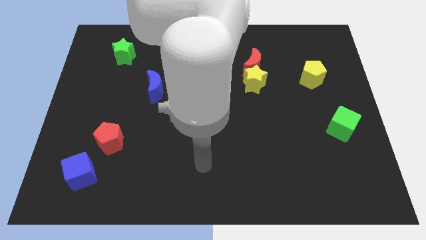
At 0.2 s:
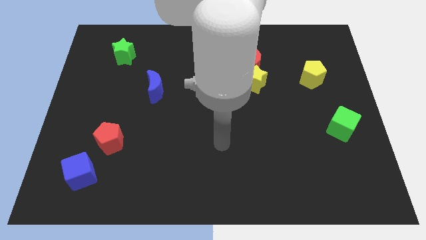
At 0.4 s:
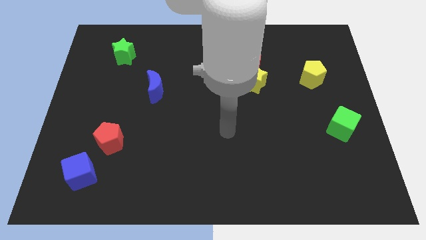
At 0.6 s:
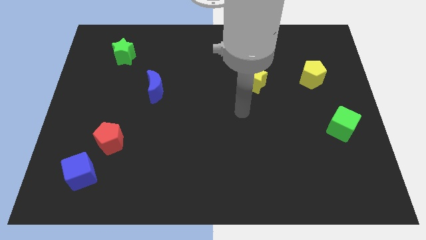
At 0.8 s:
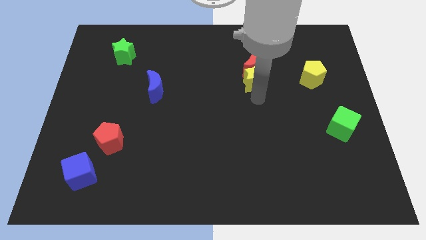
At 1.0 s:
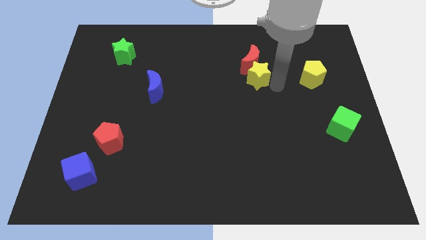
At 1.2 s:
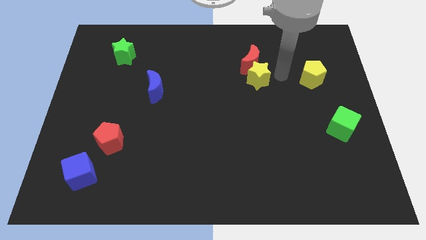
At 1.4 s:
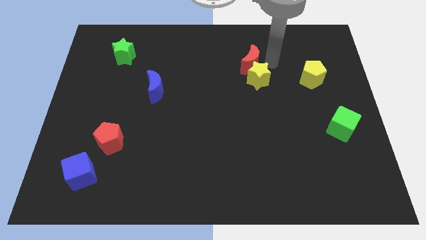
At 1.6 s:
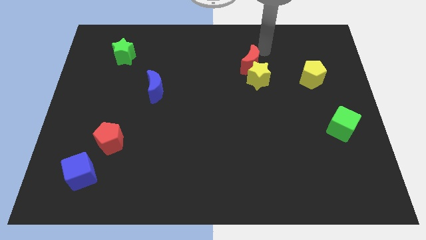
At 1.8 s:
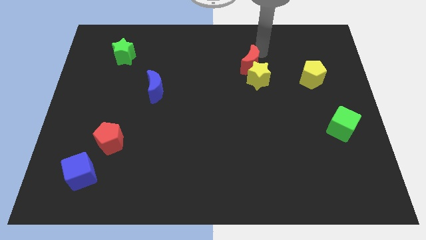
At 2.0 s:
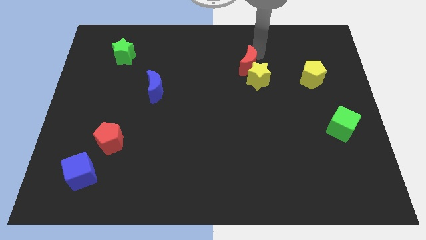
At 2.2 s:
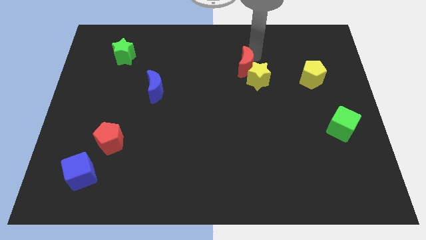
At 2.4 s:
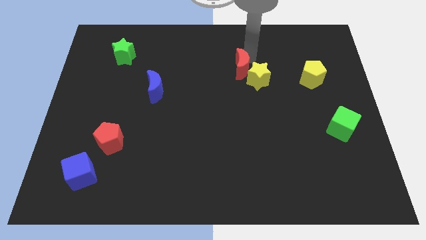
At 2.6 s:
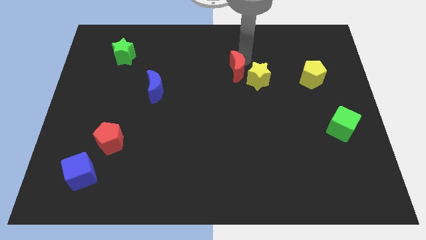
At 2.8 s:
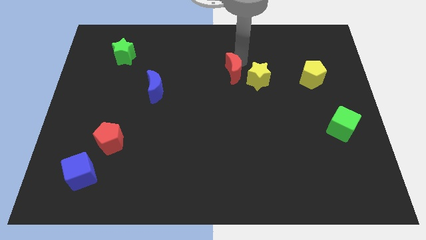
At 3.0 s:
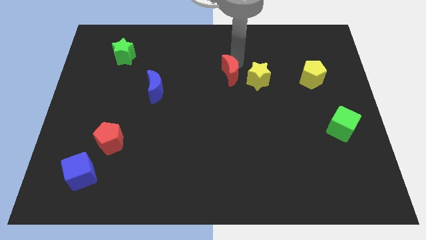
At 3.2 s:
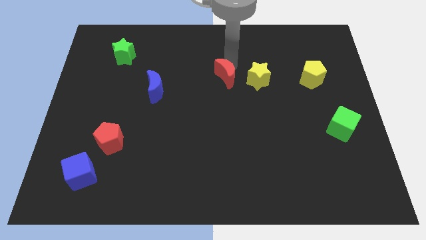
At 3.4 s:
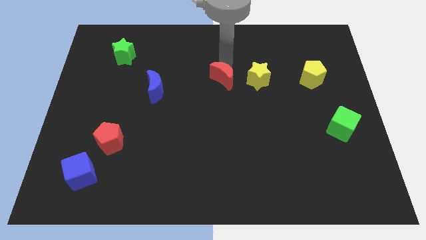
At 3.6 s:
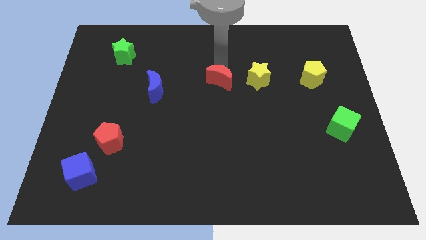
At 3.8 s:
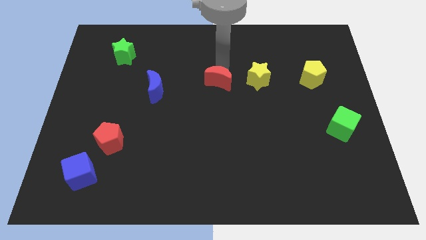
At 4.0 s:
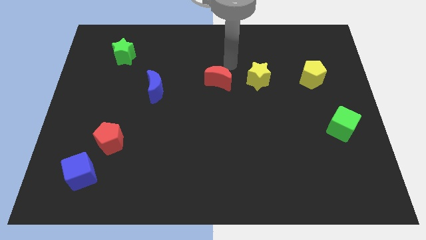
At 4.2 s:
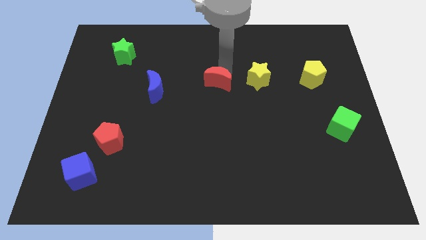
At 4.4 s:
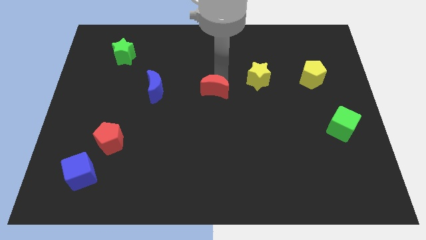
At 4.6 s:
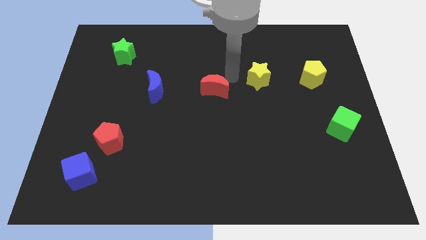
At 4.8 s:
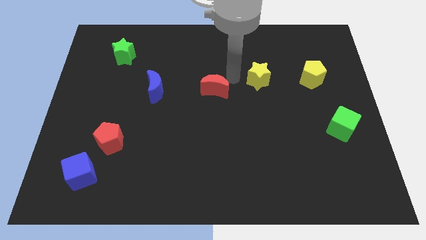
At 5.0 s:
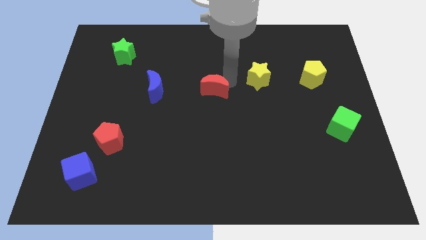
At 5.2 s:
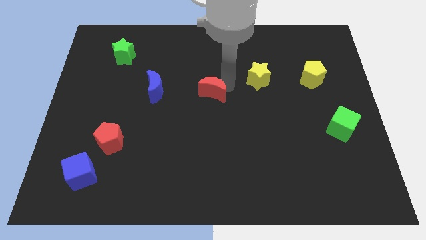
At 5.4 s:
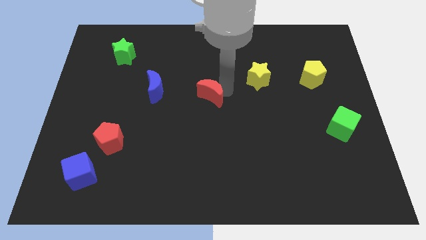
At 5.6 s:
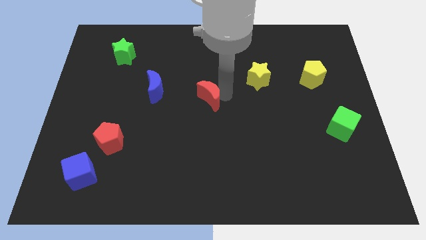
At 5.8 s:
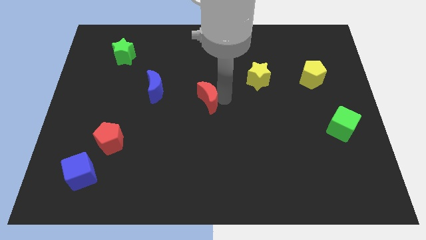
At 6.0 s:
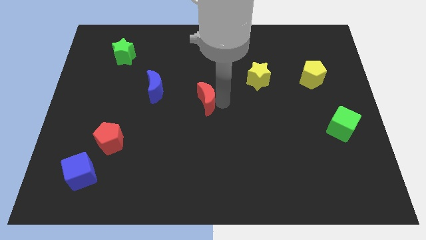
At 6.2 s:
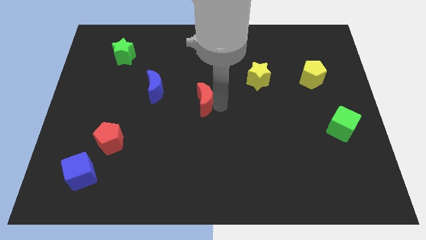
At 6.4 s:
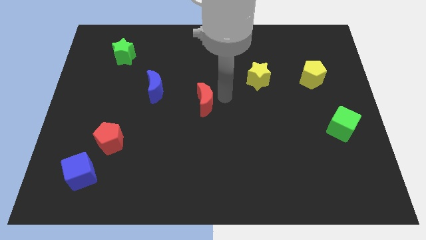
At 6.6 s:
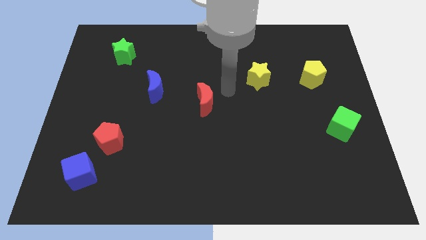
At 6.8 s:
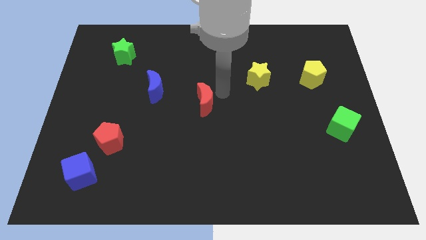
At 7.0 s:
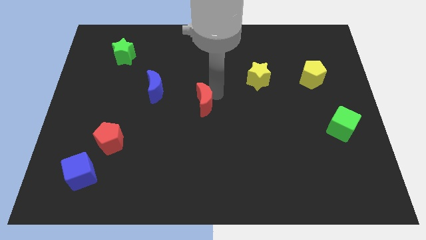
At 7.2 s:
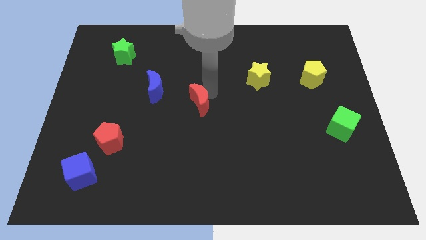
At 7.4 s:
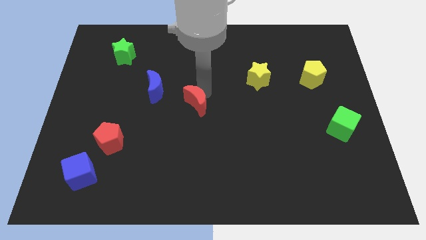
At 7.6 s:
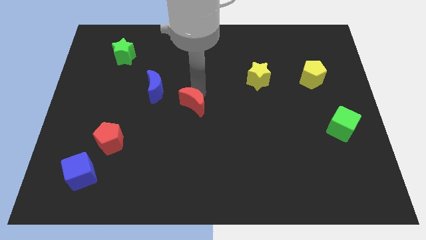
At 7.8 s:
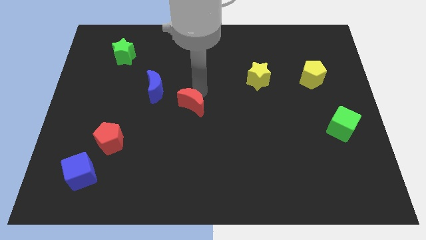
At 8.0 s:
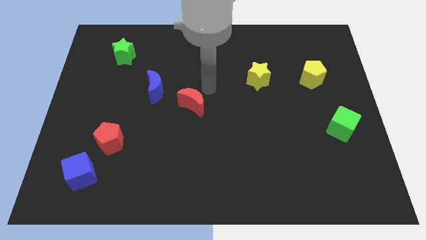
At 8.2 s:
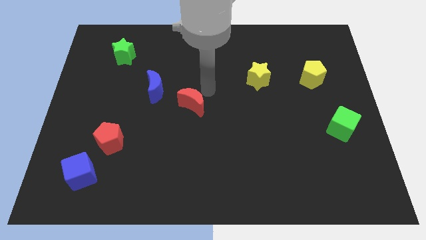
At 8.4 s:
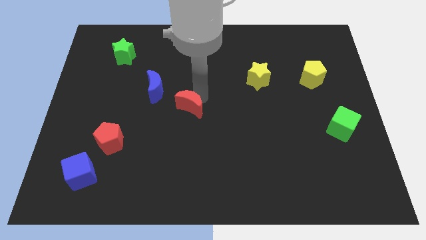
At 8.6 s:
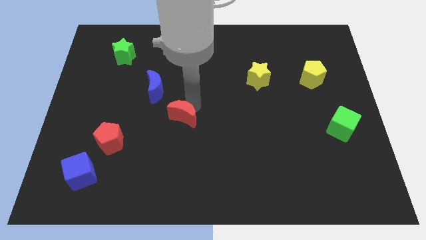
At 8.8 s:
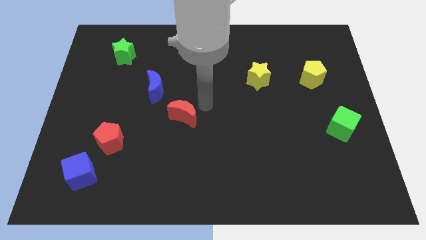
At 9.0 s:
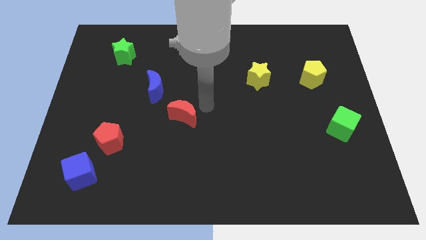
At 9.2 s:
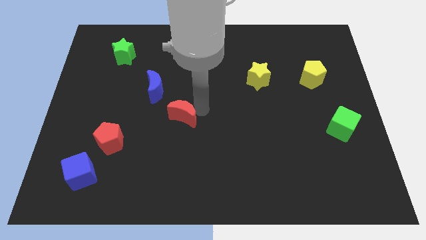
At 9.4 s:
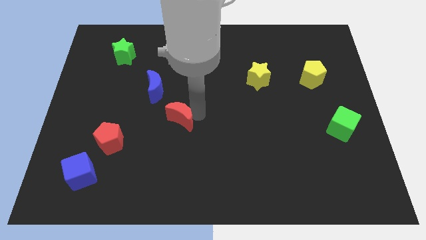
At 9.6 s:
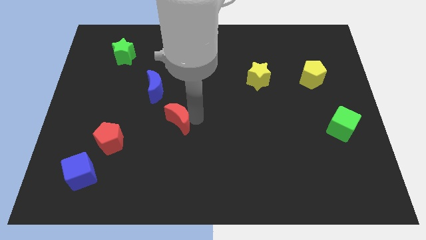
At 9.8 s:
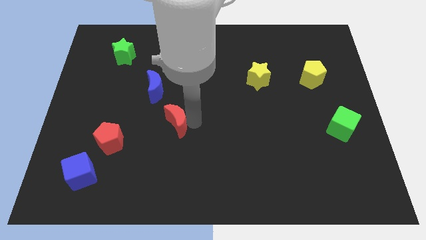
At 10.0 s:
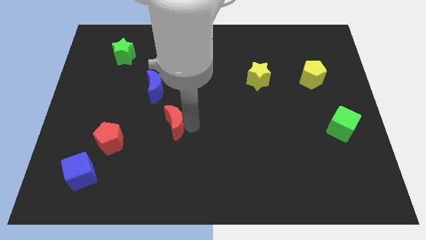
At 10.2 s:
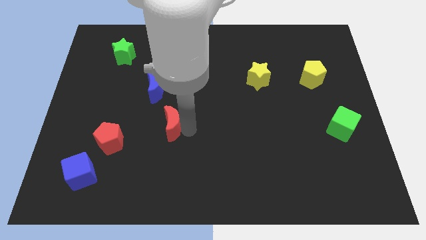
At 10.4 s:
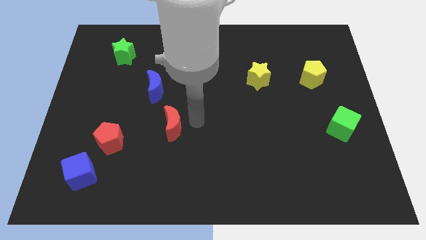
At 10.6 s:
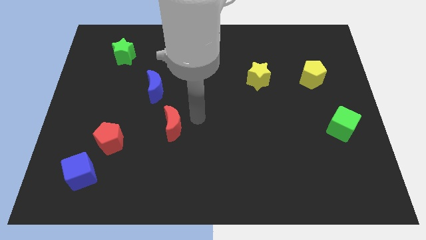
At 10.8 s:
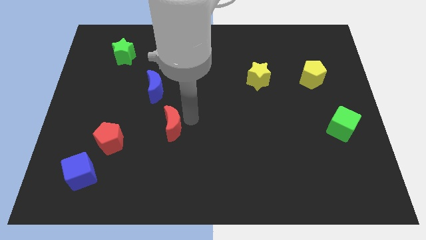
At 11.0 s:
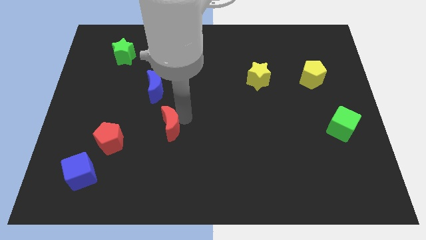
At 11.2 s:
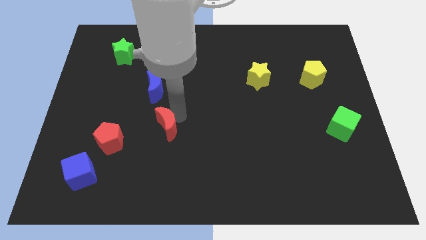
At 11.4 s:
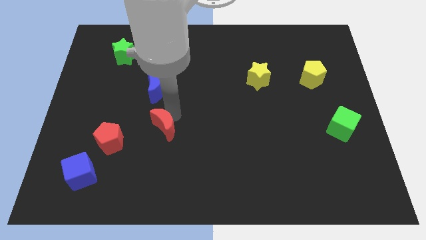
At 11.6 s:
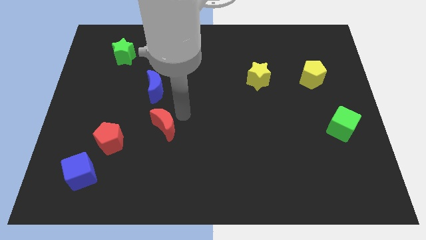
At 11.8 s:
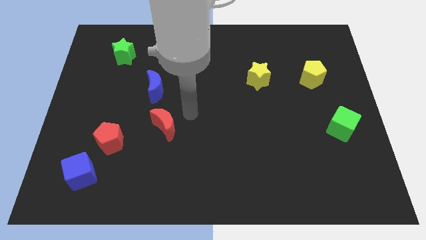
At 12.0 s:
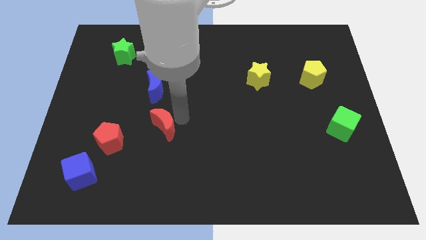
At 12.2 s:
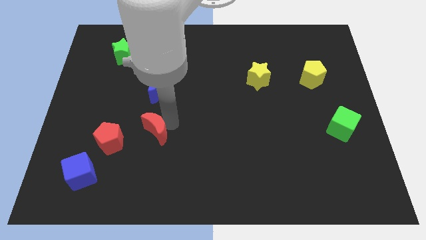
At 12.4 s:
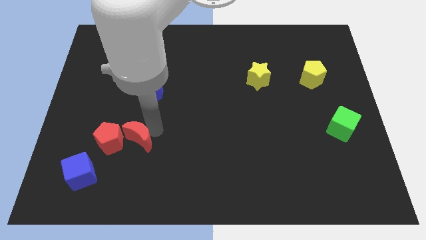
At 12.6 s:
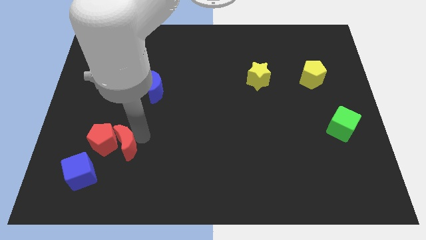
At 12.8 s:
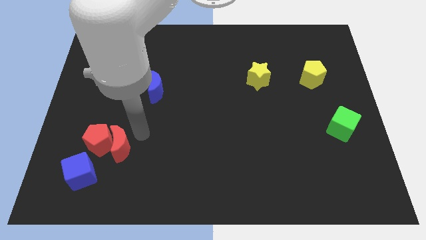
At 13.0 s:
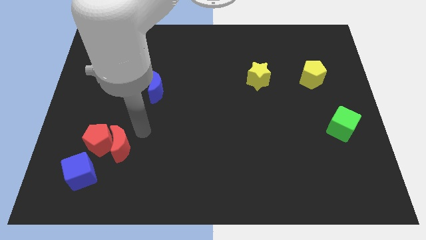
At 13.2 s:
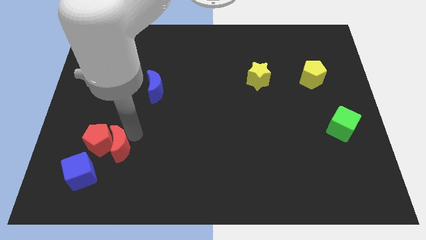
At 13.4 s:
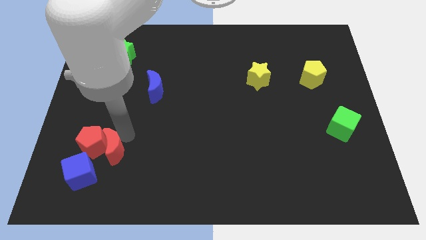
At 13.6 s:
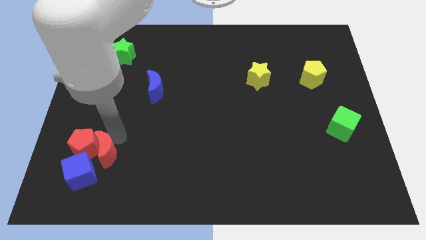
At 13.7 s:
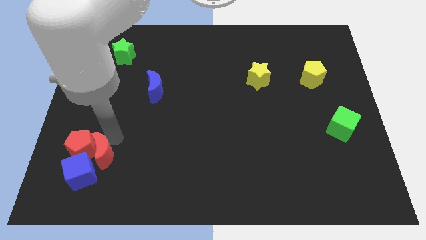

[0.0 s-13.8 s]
move the red moon close to the blue cube

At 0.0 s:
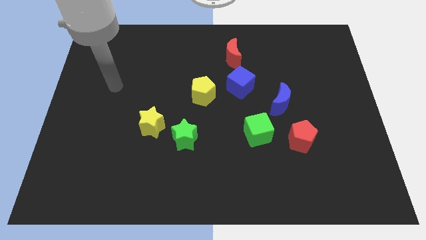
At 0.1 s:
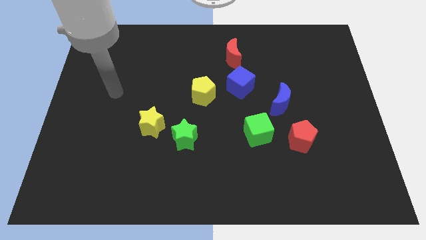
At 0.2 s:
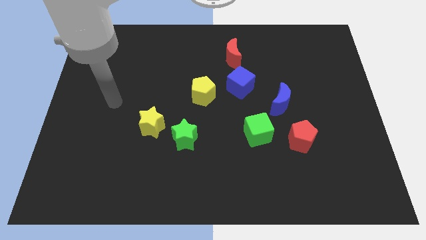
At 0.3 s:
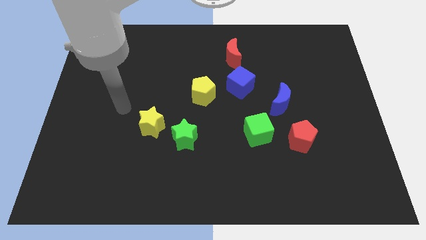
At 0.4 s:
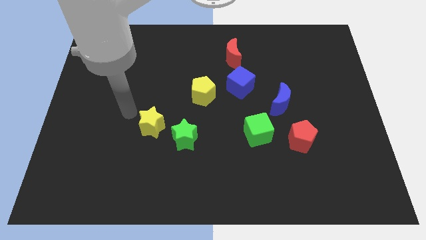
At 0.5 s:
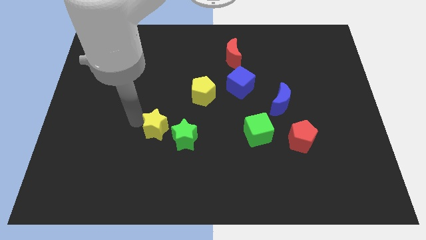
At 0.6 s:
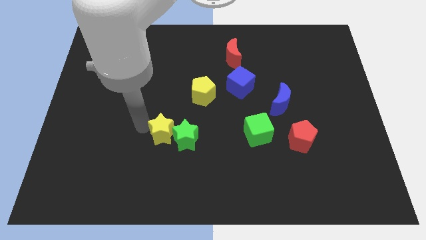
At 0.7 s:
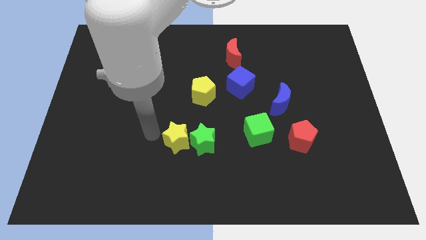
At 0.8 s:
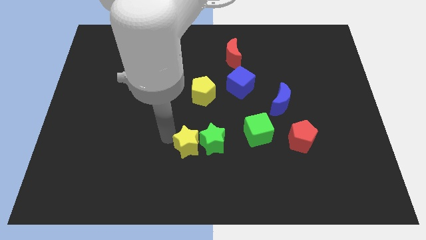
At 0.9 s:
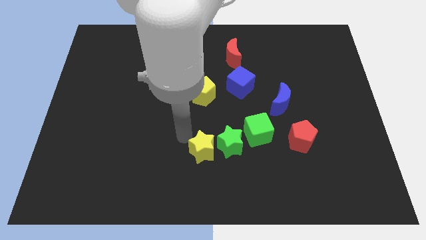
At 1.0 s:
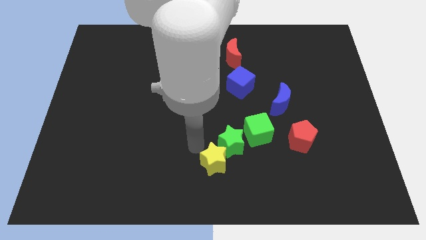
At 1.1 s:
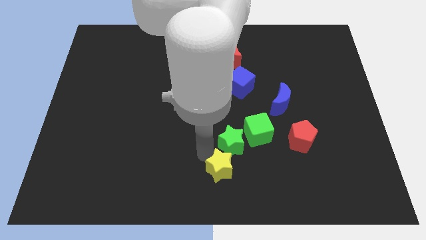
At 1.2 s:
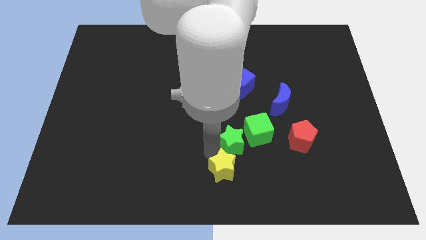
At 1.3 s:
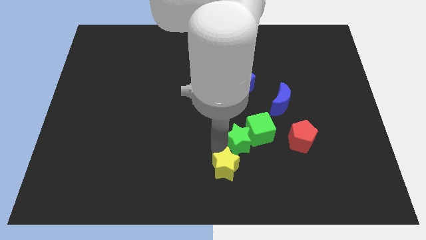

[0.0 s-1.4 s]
put the green star close to the green cube
